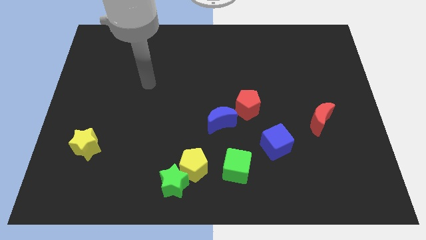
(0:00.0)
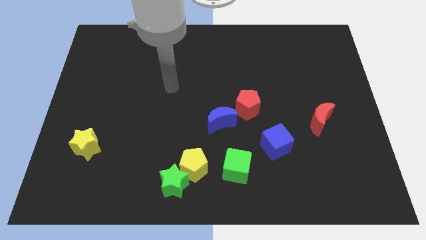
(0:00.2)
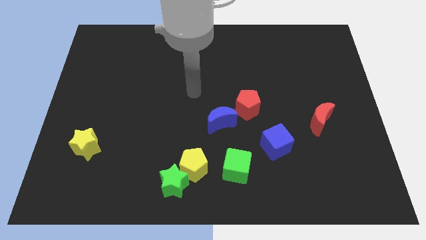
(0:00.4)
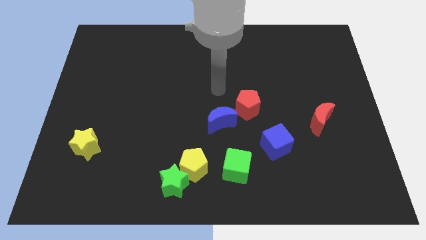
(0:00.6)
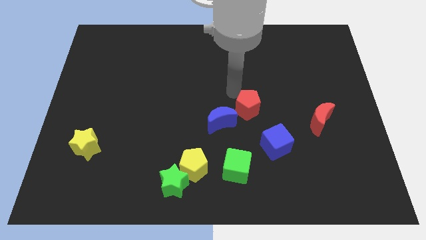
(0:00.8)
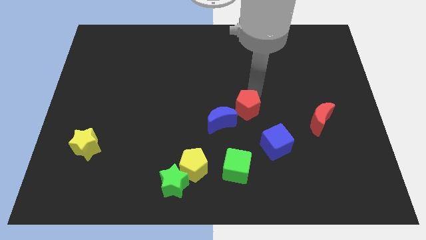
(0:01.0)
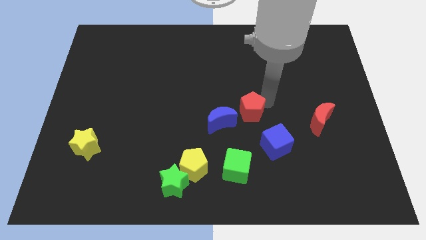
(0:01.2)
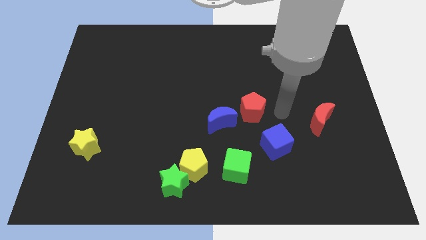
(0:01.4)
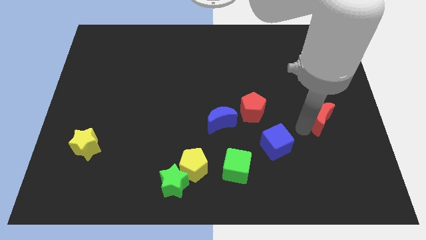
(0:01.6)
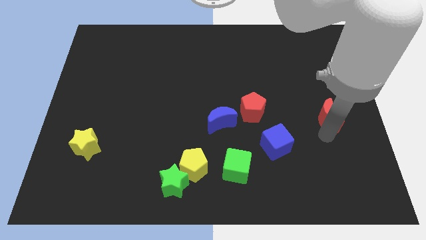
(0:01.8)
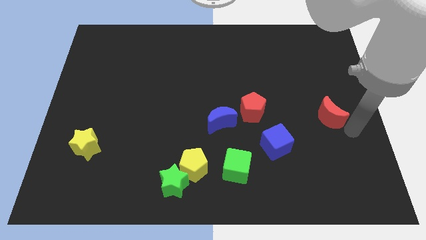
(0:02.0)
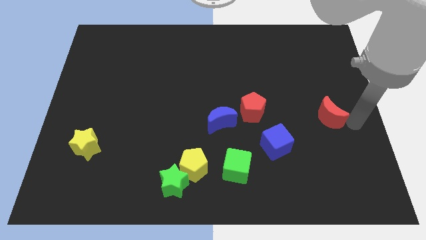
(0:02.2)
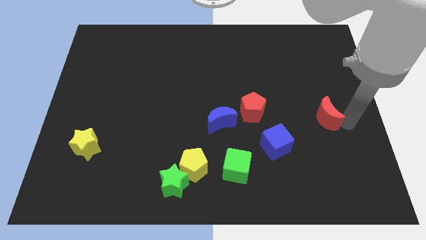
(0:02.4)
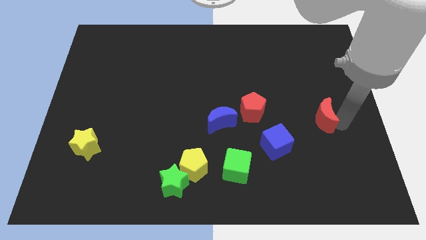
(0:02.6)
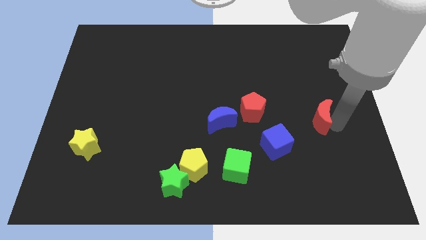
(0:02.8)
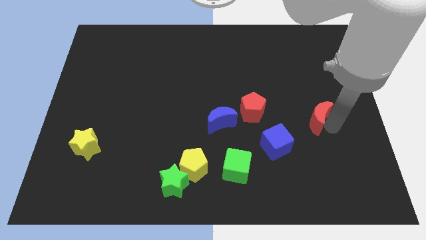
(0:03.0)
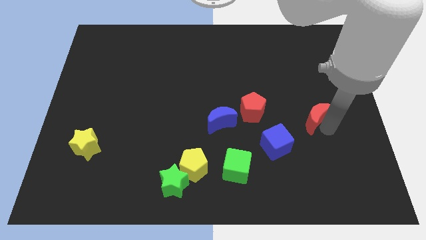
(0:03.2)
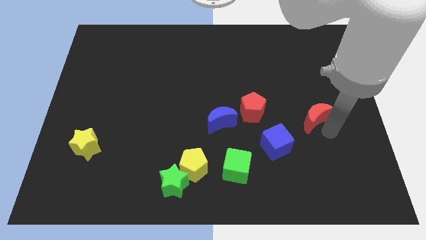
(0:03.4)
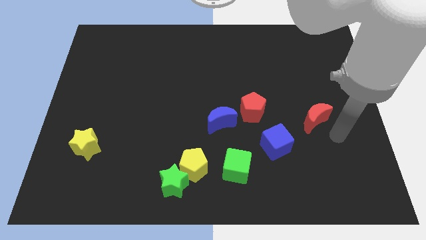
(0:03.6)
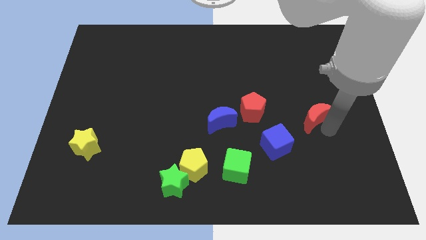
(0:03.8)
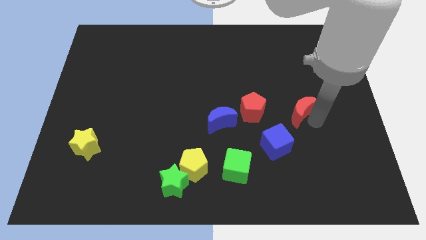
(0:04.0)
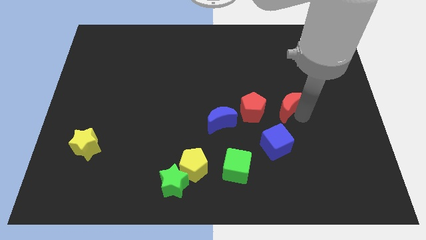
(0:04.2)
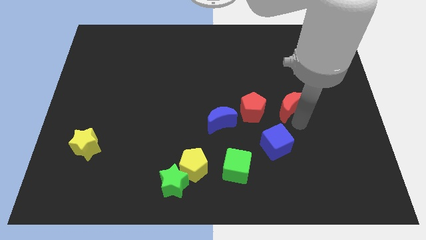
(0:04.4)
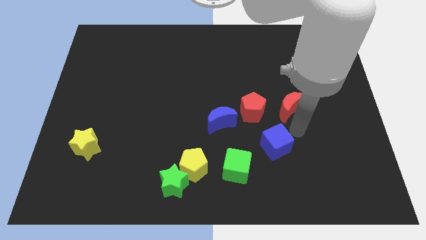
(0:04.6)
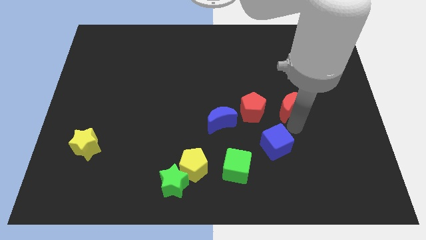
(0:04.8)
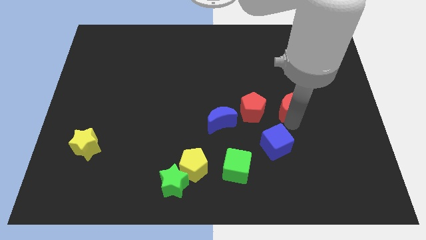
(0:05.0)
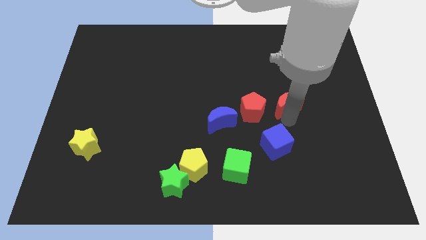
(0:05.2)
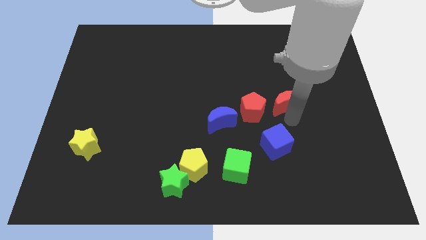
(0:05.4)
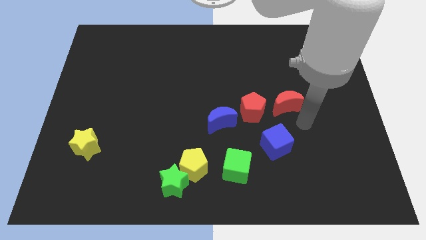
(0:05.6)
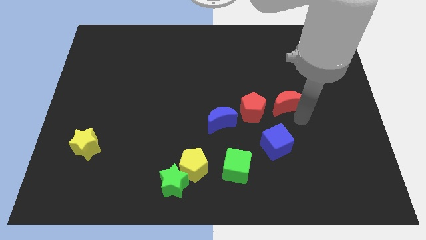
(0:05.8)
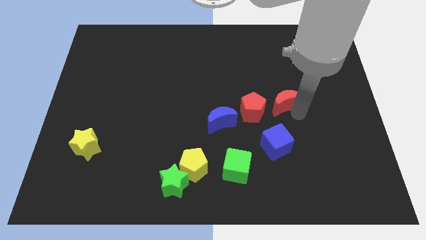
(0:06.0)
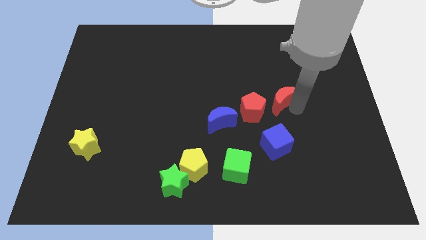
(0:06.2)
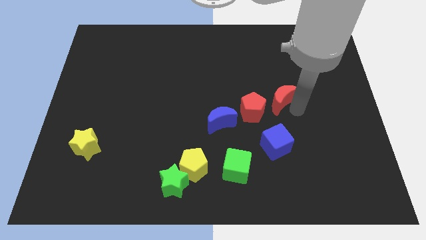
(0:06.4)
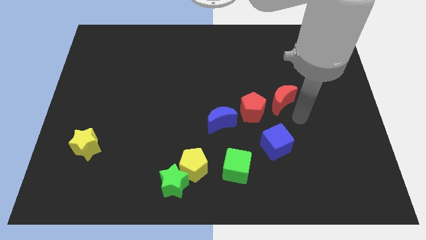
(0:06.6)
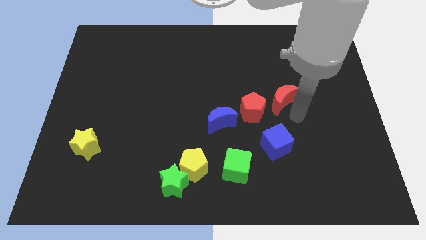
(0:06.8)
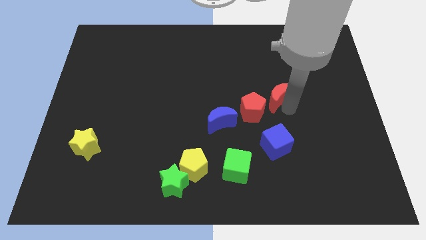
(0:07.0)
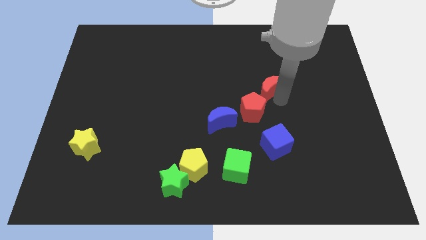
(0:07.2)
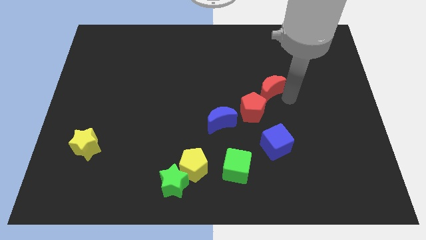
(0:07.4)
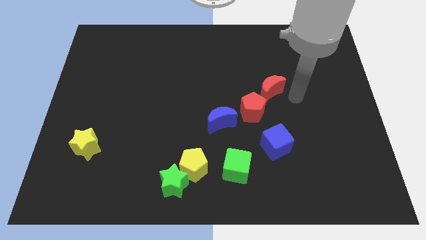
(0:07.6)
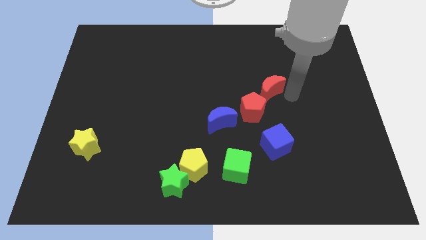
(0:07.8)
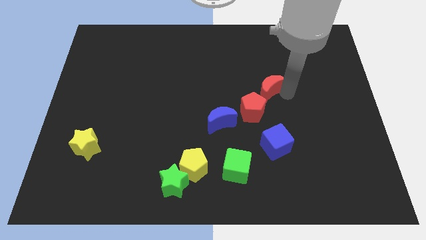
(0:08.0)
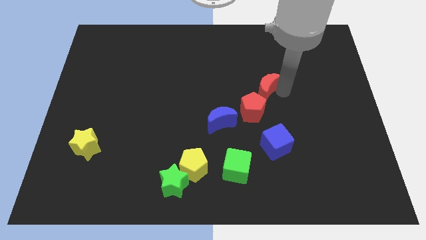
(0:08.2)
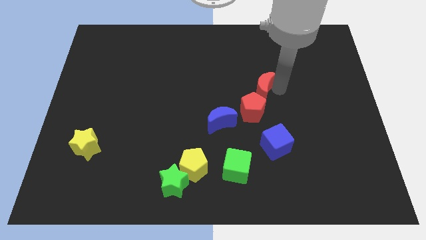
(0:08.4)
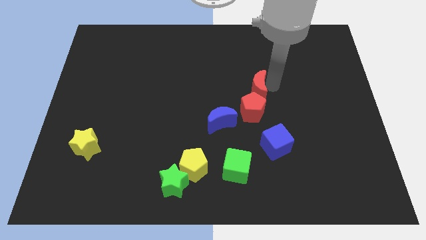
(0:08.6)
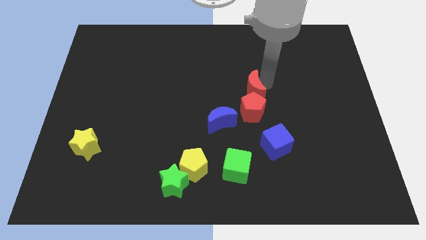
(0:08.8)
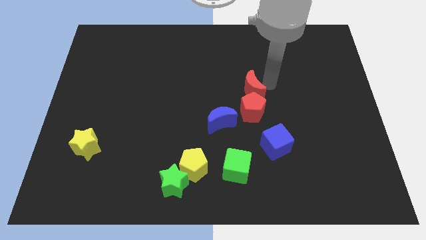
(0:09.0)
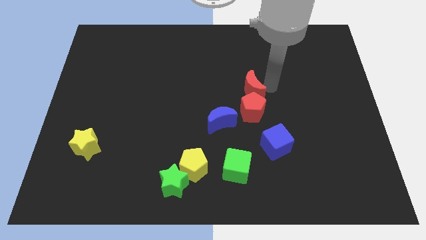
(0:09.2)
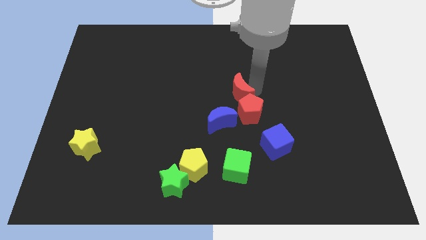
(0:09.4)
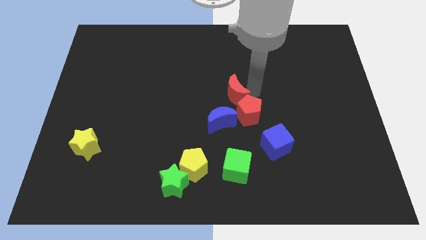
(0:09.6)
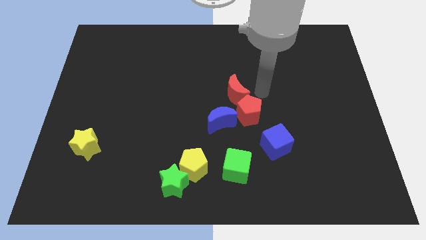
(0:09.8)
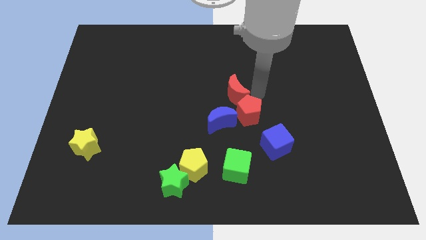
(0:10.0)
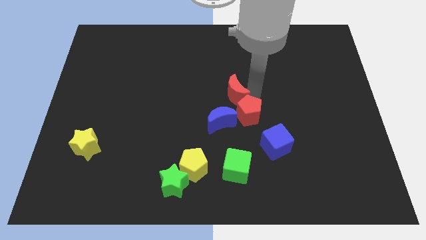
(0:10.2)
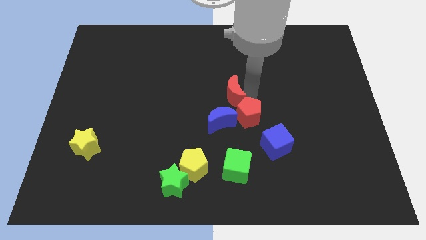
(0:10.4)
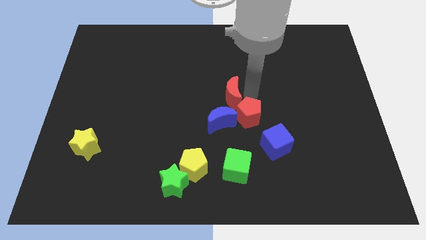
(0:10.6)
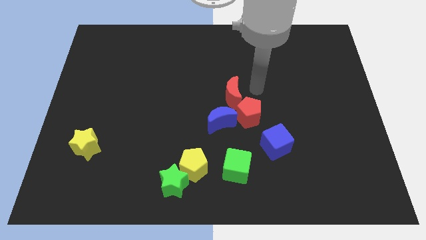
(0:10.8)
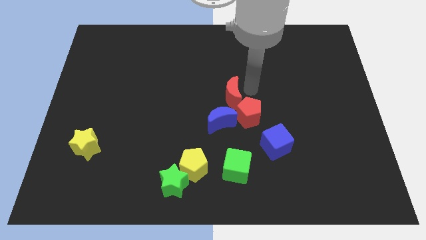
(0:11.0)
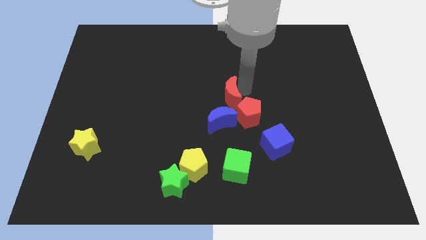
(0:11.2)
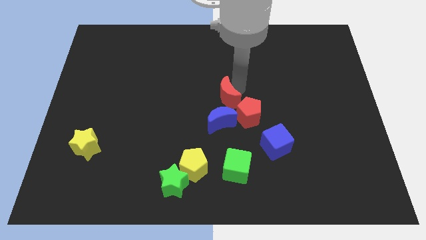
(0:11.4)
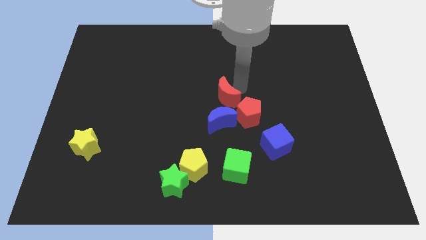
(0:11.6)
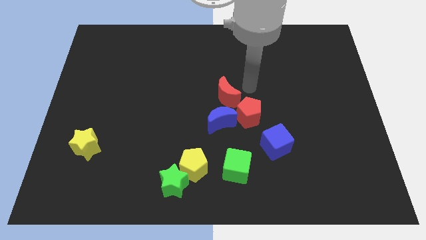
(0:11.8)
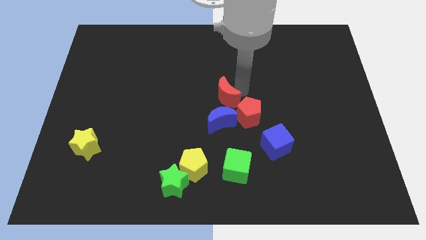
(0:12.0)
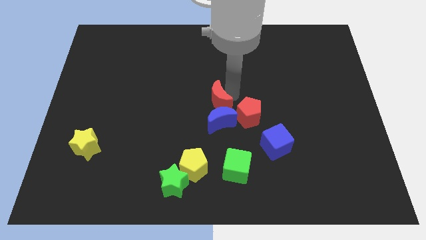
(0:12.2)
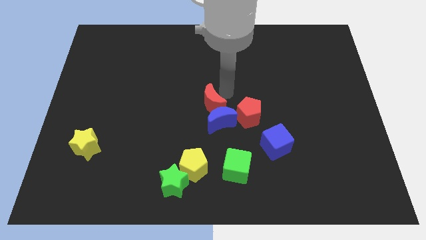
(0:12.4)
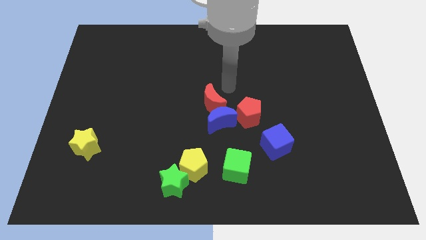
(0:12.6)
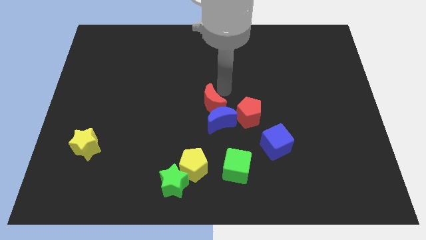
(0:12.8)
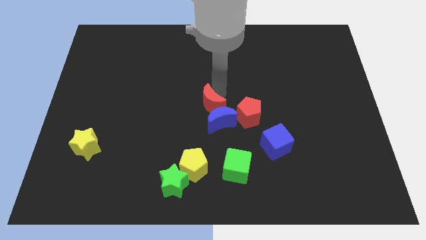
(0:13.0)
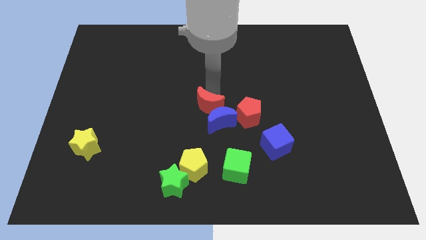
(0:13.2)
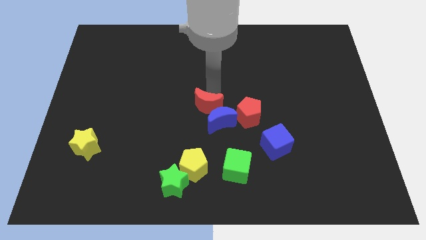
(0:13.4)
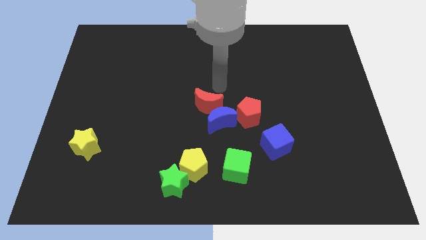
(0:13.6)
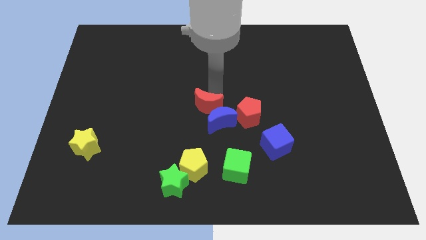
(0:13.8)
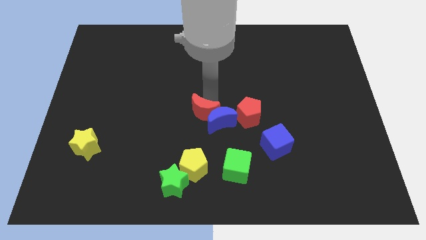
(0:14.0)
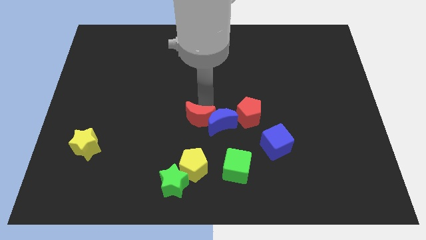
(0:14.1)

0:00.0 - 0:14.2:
put the red moon to the bottom left of the blue moon

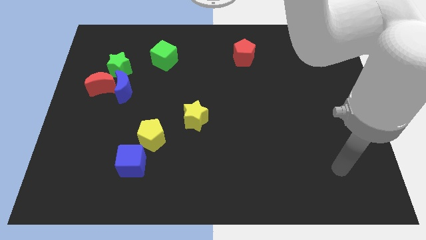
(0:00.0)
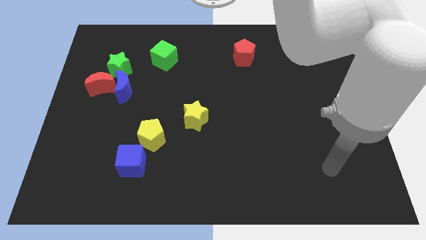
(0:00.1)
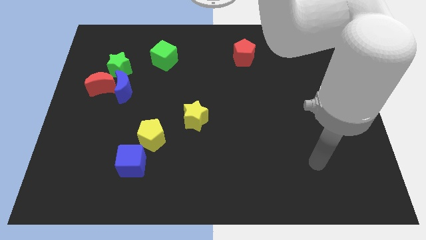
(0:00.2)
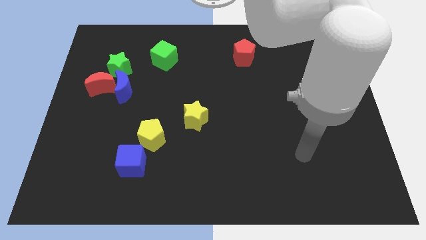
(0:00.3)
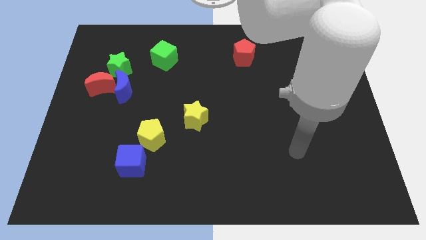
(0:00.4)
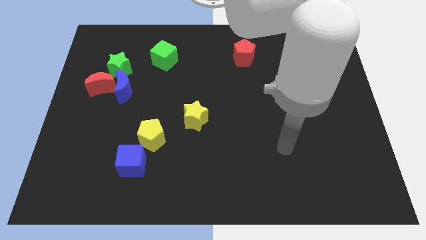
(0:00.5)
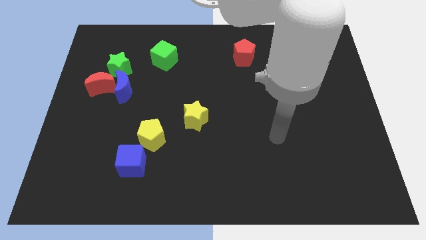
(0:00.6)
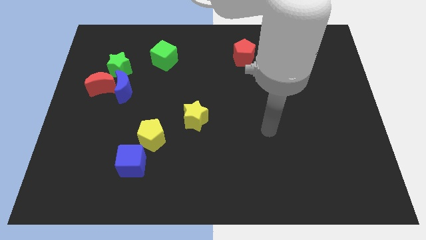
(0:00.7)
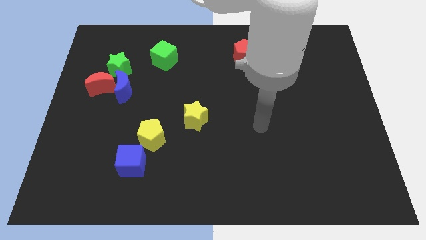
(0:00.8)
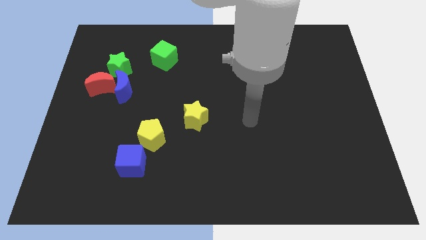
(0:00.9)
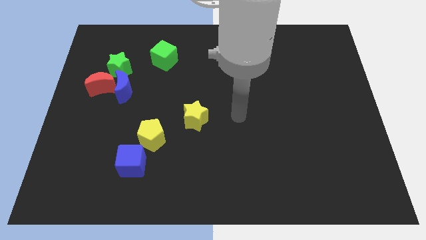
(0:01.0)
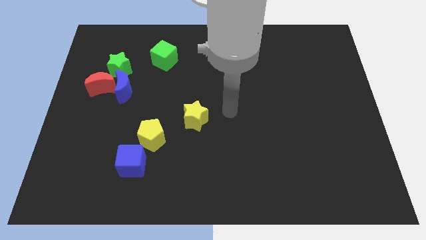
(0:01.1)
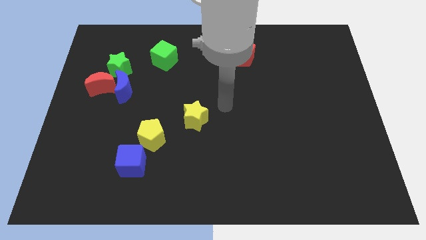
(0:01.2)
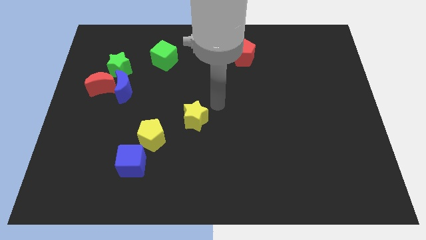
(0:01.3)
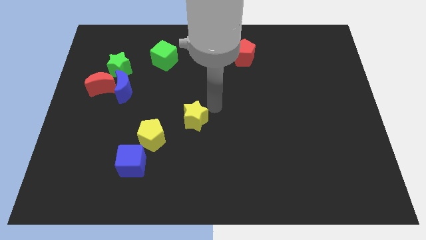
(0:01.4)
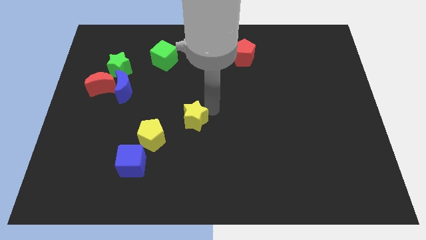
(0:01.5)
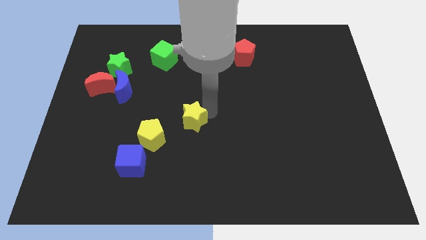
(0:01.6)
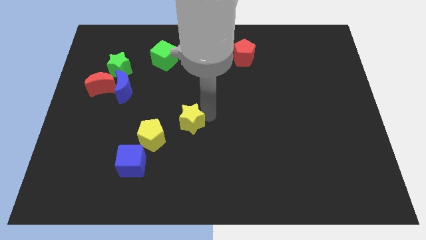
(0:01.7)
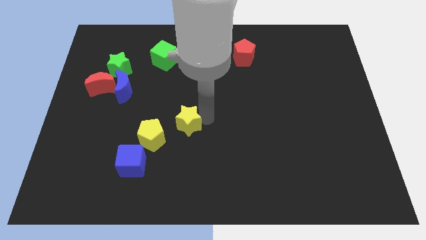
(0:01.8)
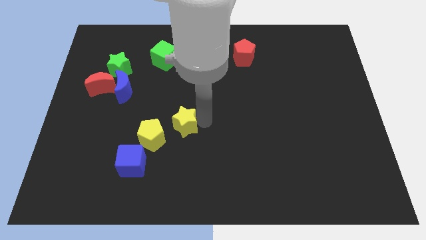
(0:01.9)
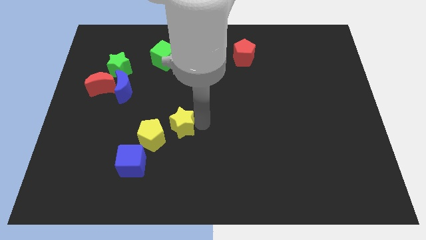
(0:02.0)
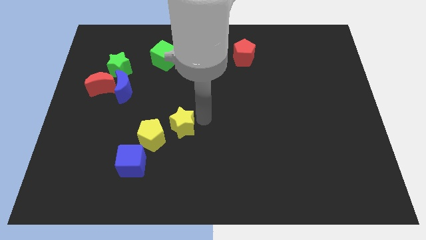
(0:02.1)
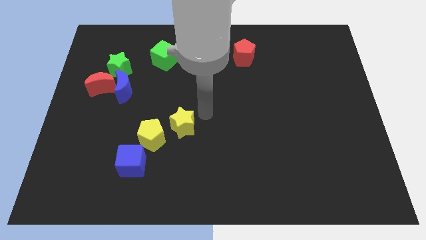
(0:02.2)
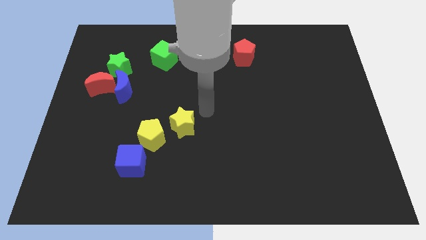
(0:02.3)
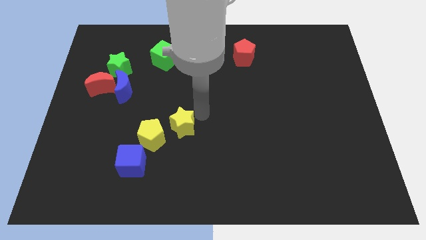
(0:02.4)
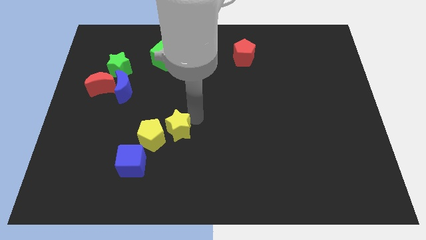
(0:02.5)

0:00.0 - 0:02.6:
move the yellow star diagonally up and to the right of the blue cube
